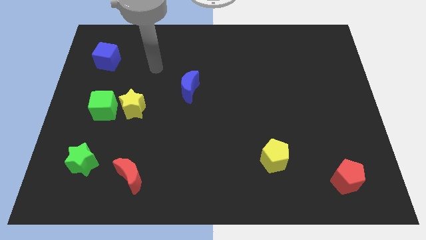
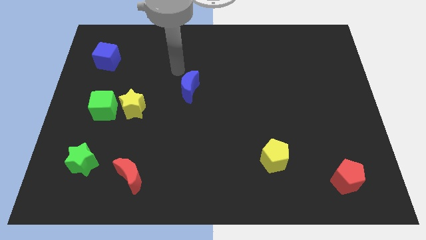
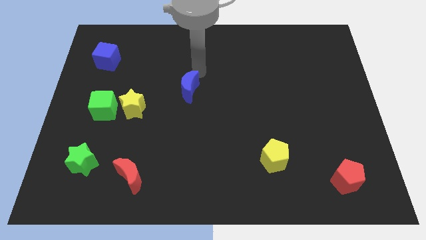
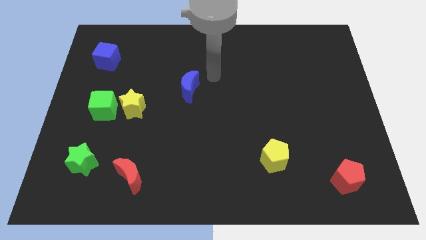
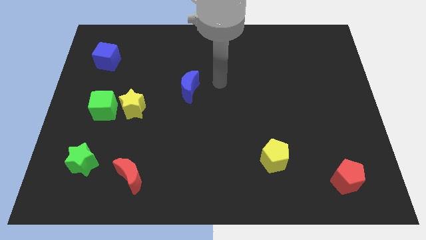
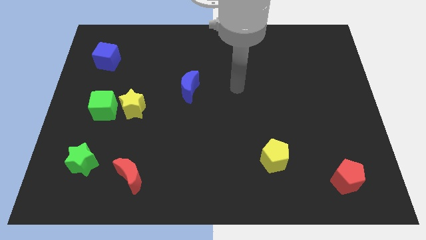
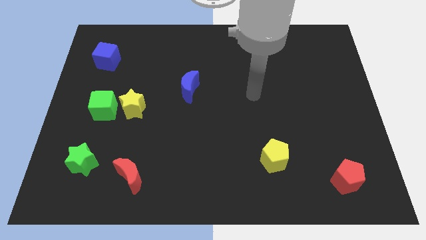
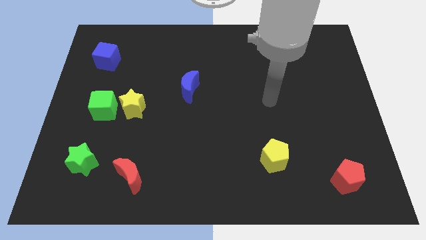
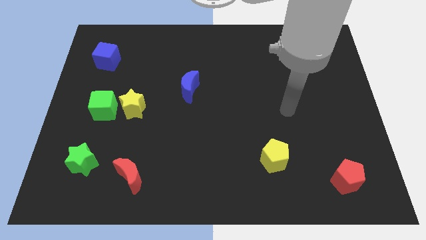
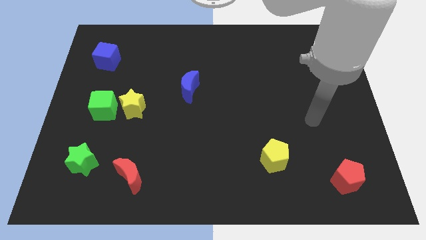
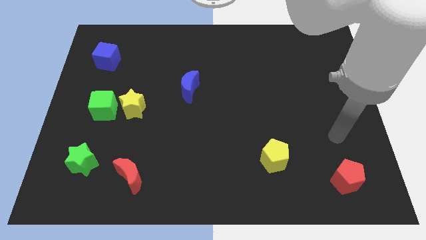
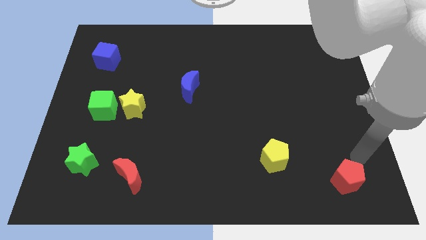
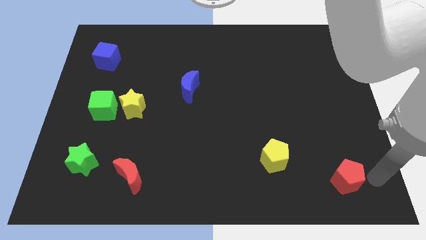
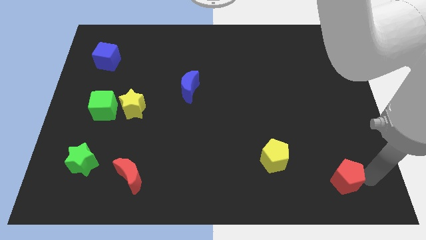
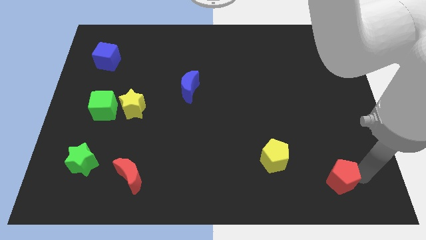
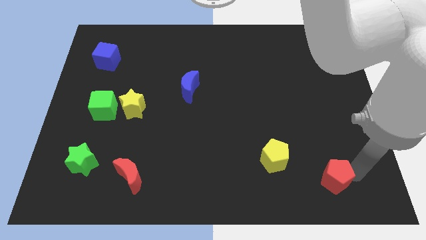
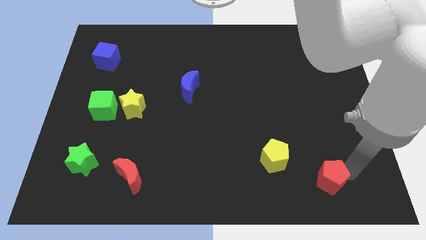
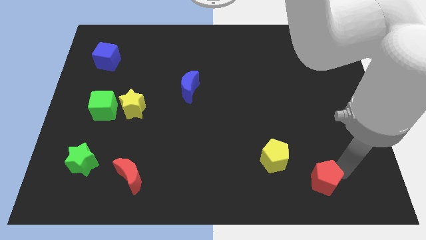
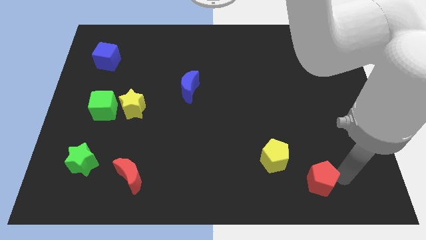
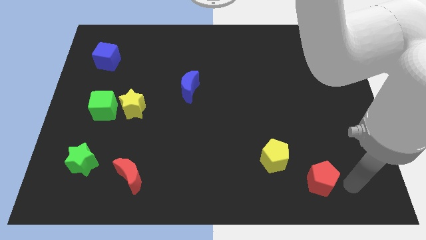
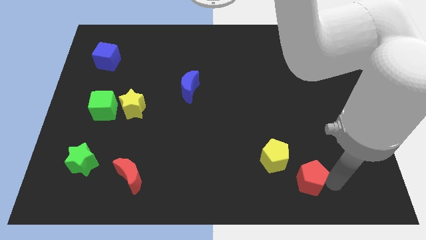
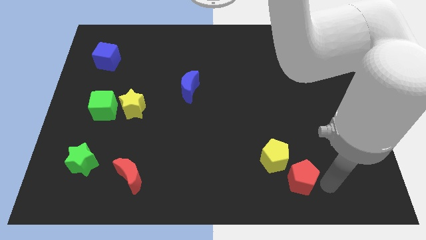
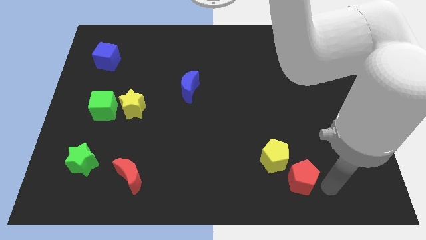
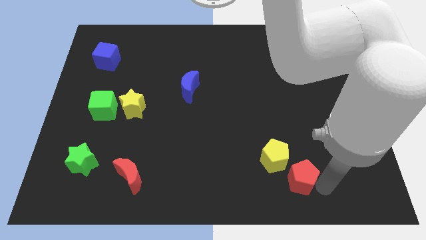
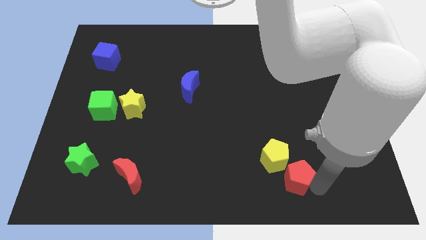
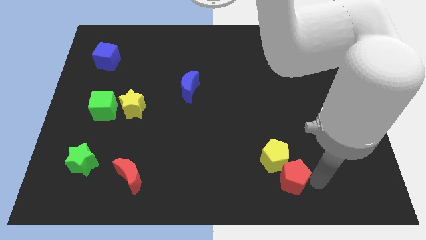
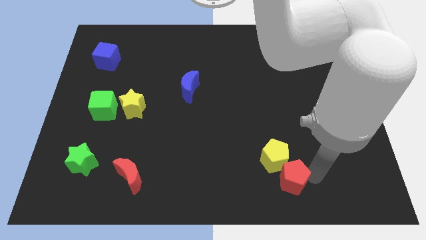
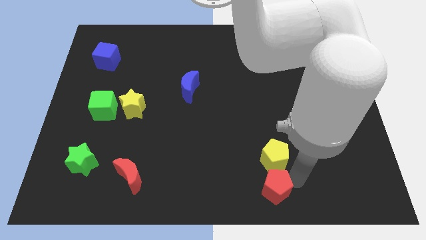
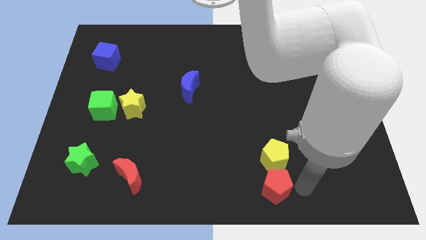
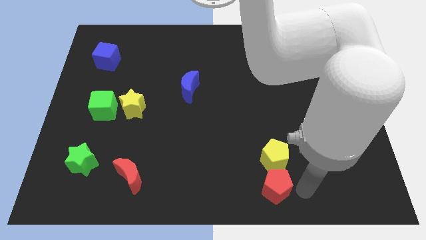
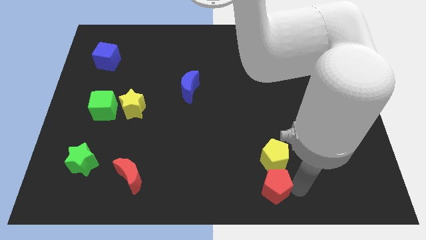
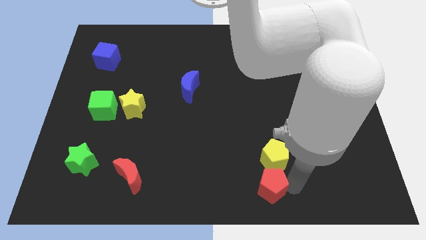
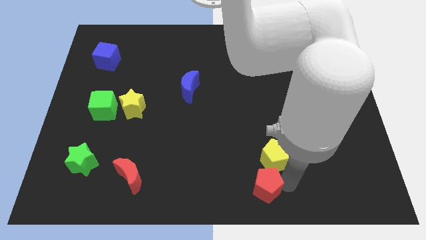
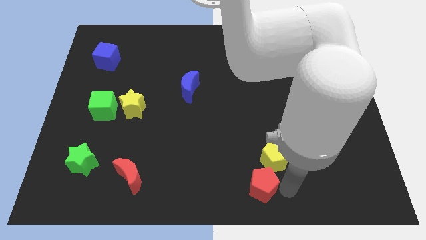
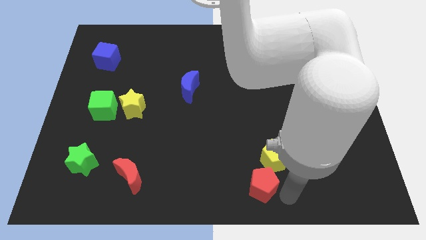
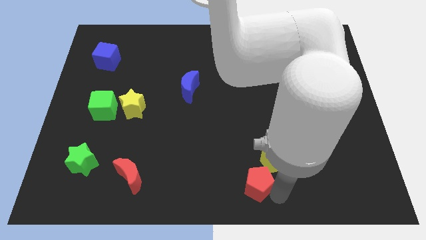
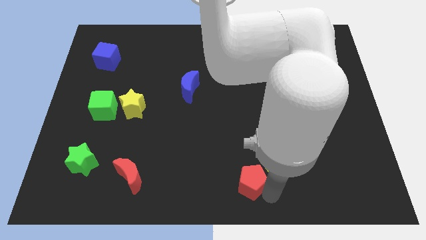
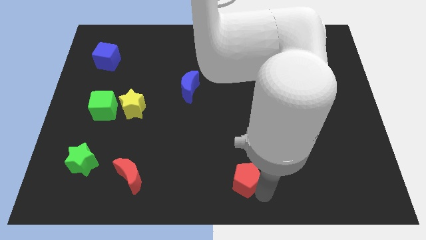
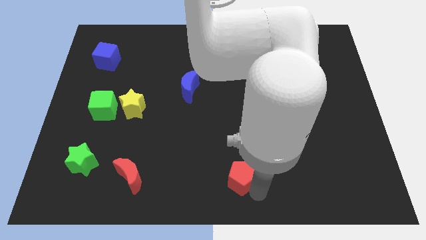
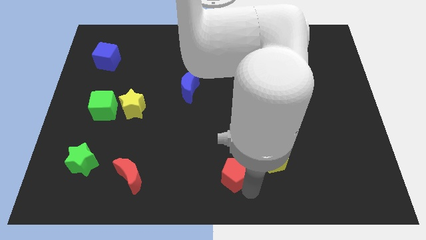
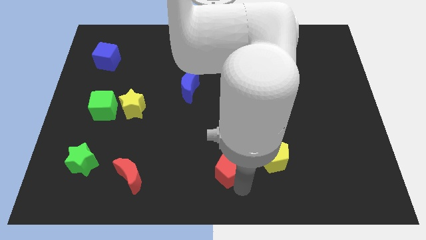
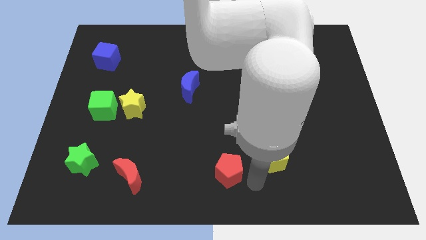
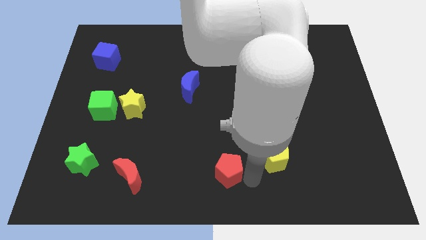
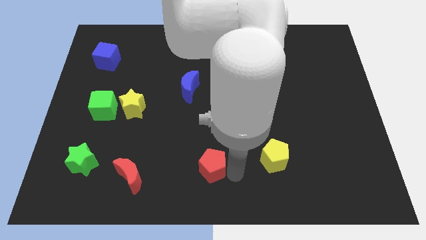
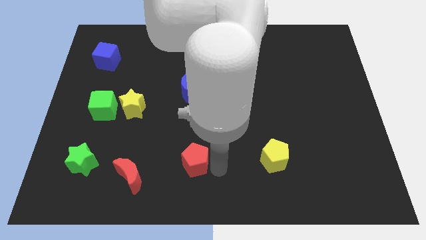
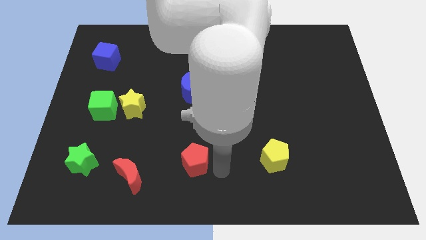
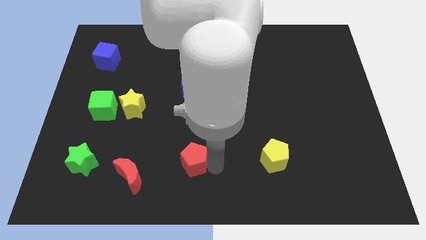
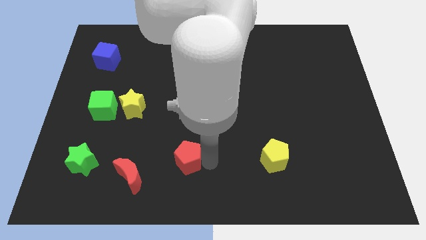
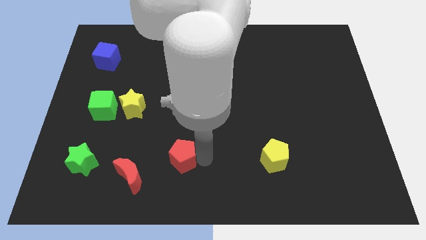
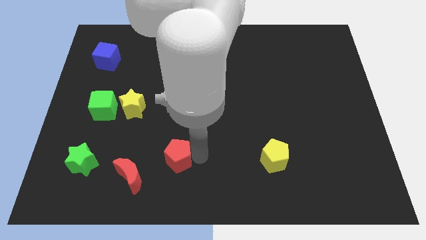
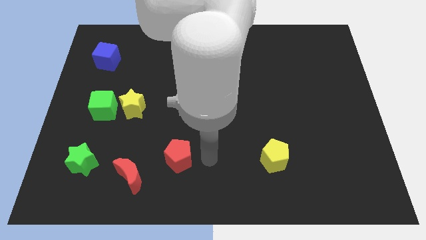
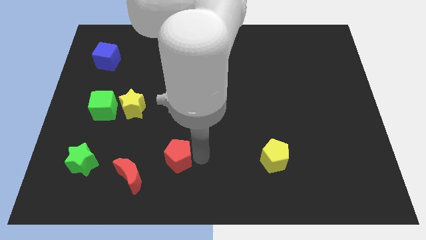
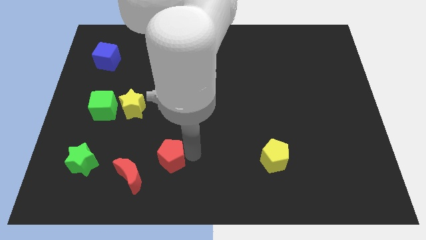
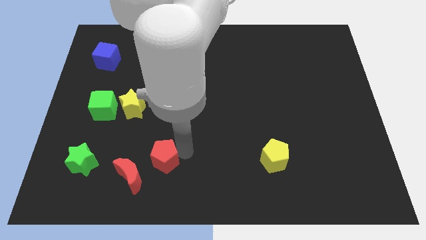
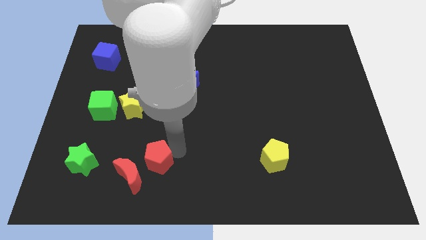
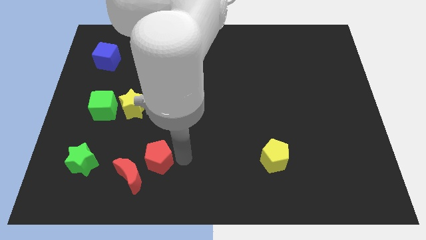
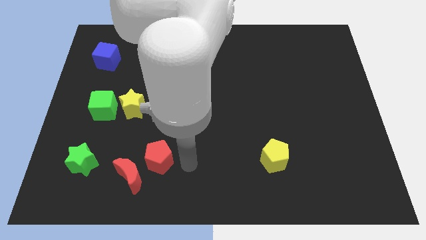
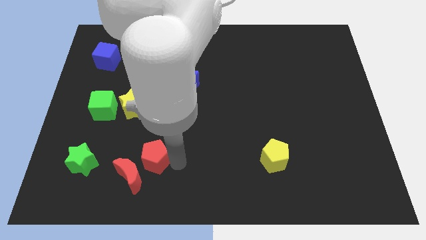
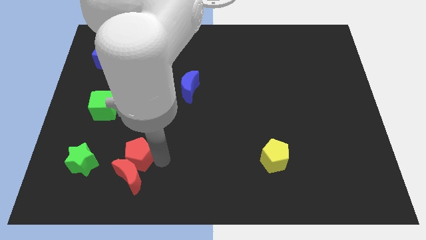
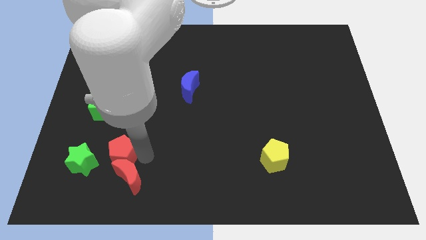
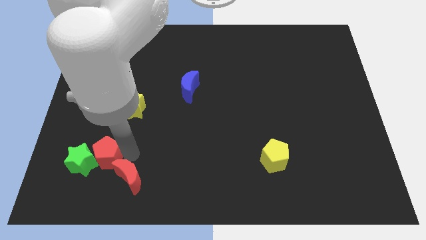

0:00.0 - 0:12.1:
slide the red pentagon close to the green star
